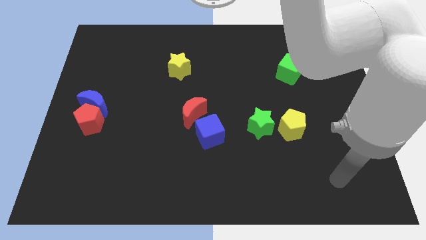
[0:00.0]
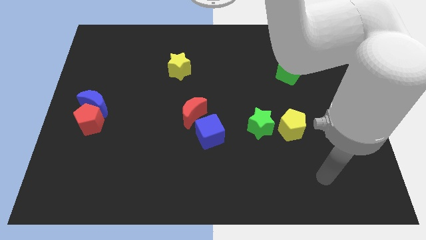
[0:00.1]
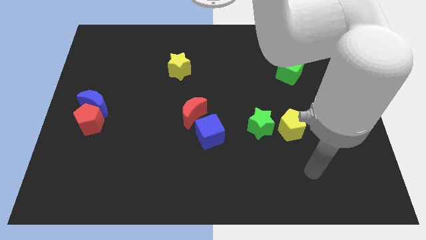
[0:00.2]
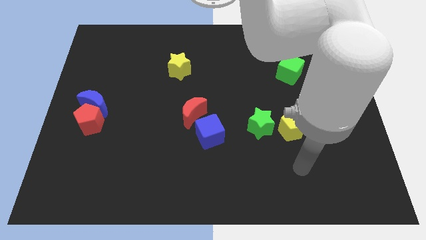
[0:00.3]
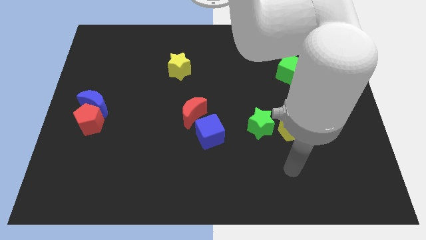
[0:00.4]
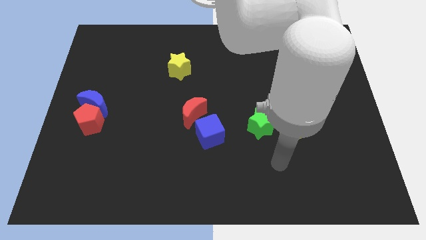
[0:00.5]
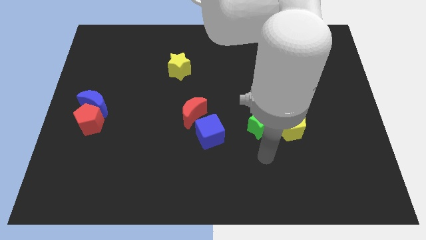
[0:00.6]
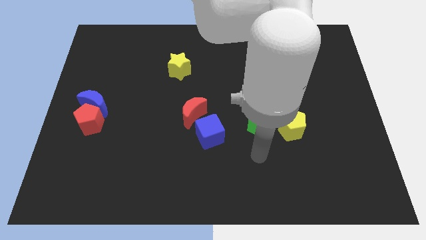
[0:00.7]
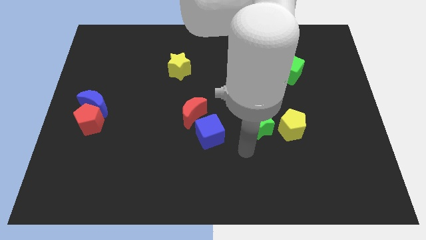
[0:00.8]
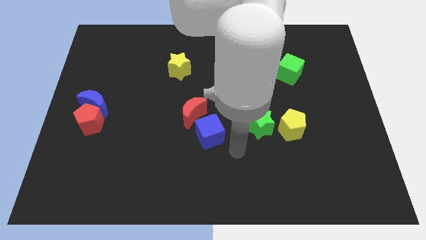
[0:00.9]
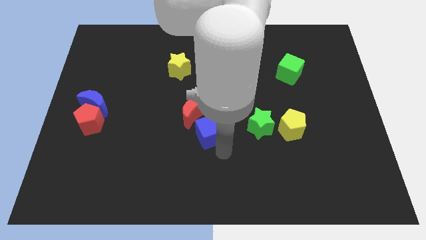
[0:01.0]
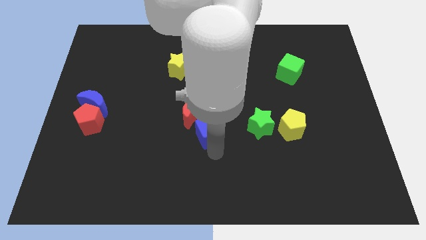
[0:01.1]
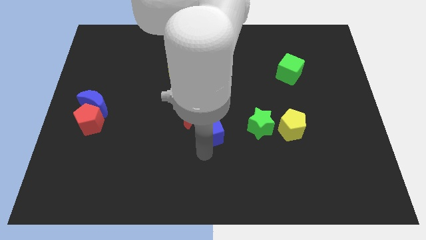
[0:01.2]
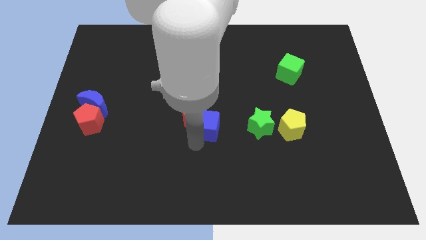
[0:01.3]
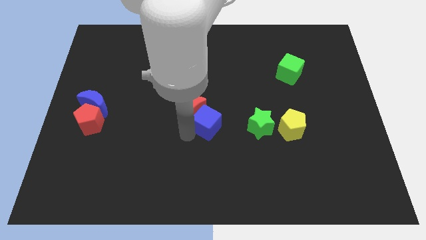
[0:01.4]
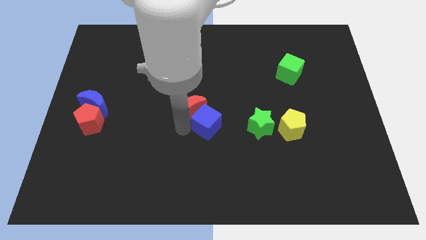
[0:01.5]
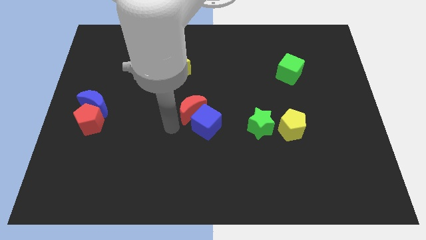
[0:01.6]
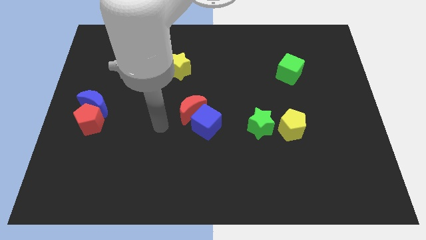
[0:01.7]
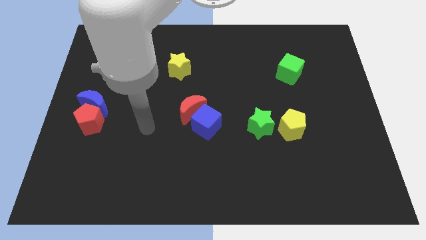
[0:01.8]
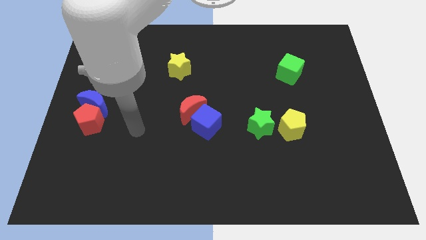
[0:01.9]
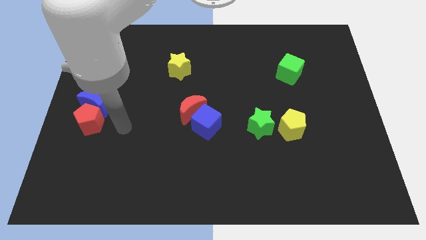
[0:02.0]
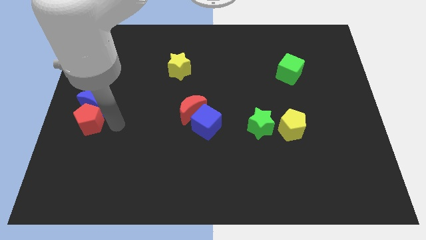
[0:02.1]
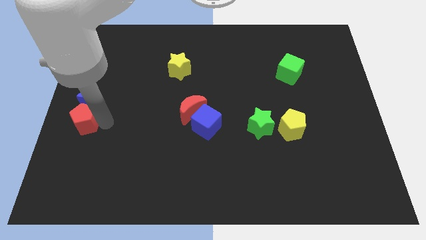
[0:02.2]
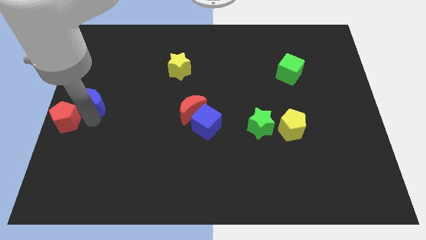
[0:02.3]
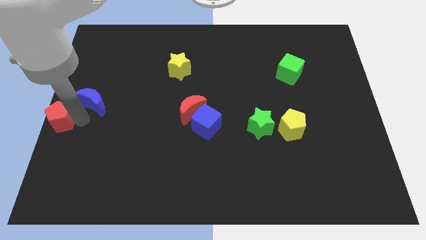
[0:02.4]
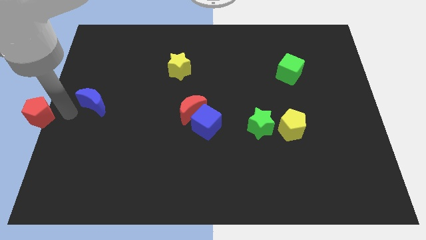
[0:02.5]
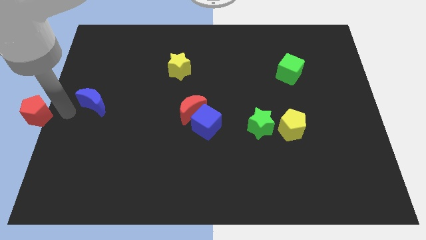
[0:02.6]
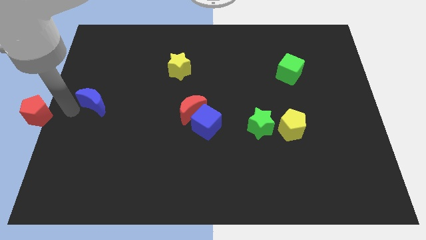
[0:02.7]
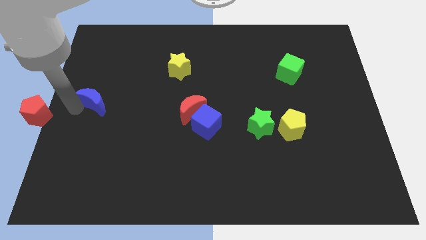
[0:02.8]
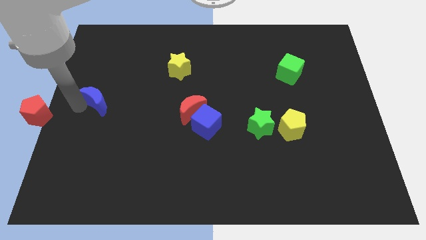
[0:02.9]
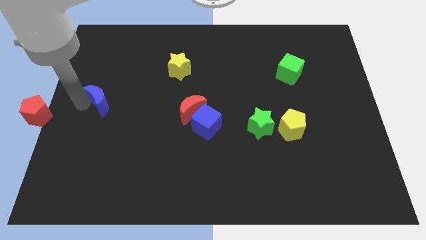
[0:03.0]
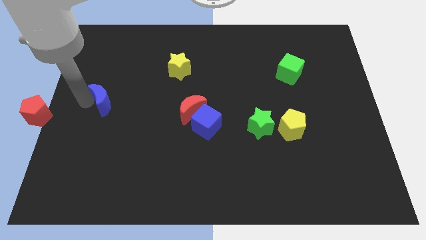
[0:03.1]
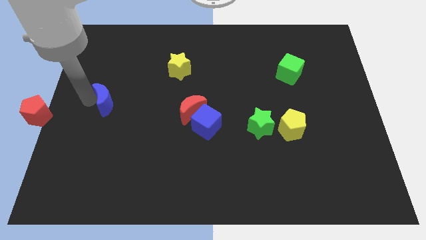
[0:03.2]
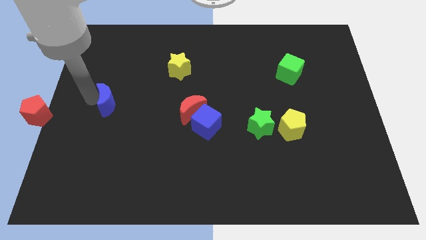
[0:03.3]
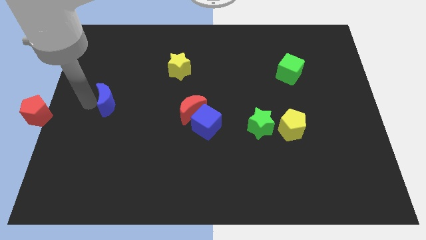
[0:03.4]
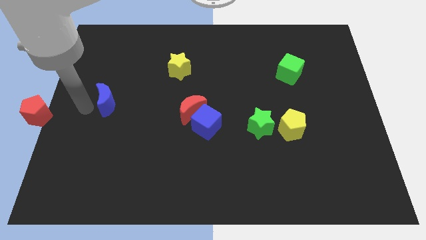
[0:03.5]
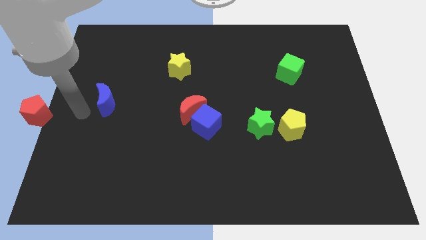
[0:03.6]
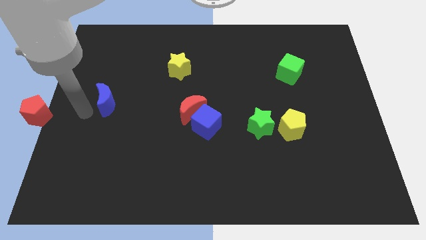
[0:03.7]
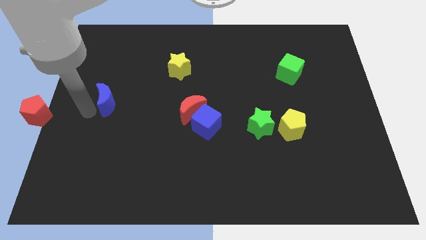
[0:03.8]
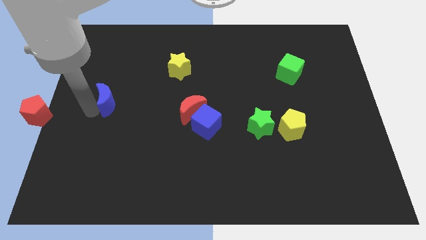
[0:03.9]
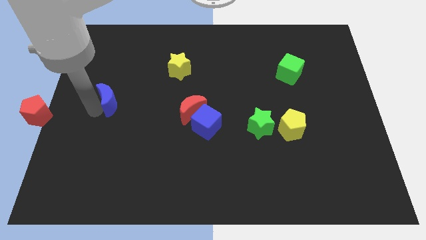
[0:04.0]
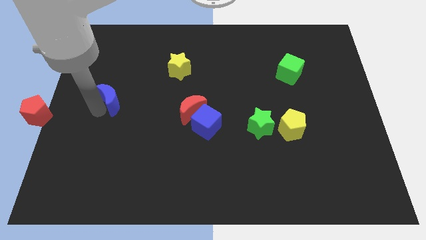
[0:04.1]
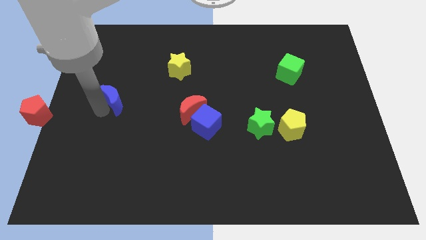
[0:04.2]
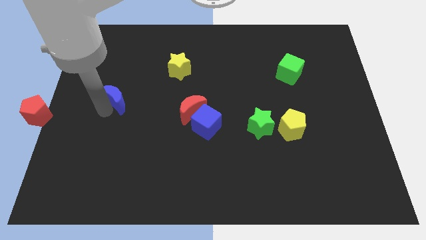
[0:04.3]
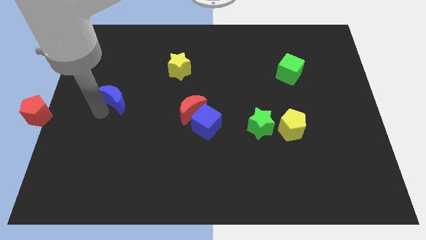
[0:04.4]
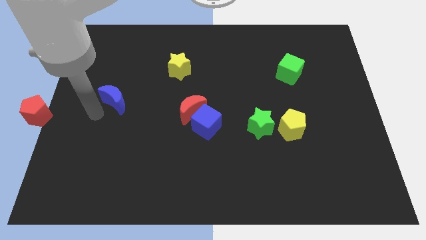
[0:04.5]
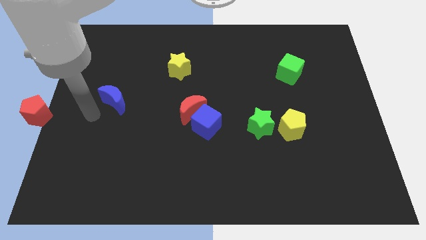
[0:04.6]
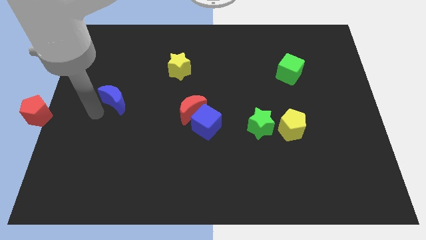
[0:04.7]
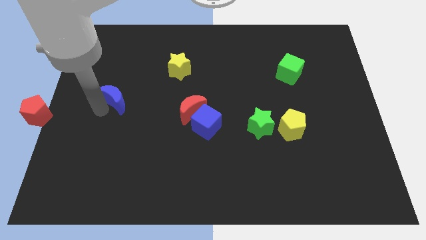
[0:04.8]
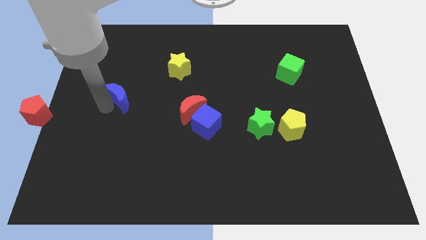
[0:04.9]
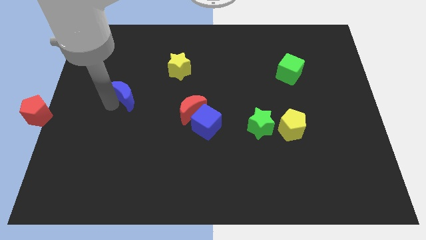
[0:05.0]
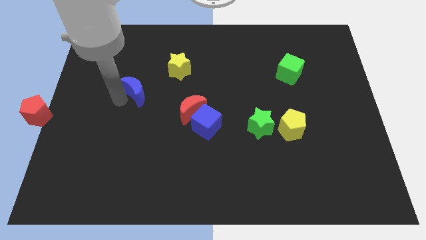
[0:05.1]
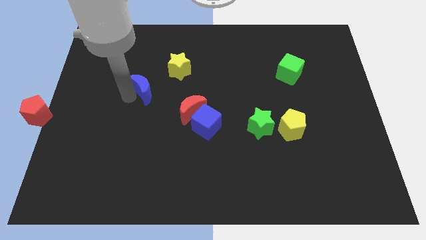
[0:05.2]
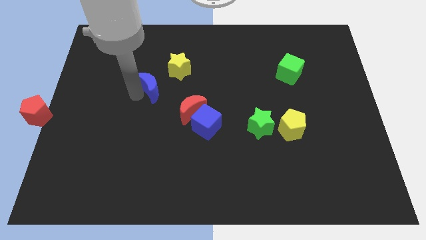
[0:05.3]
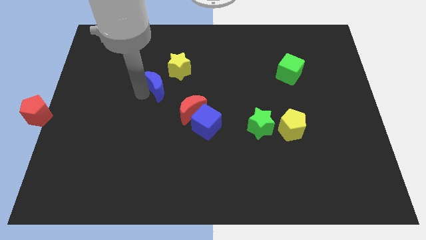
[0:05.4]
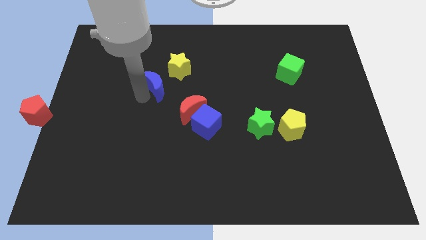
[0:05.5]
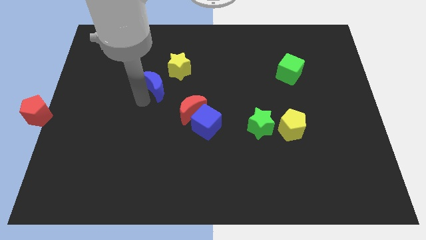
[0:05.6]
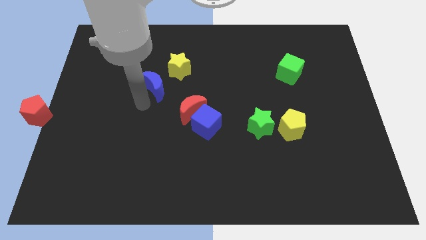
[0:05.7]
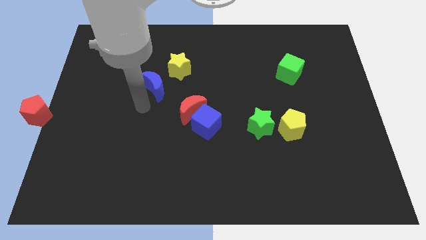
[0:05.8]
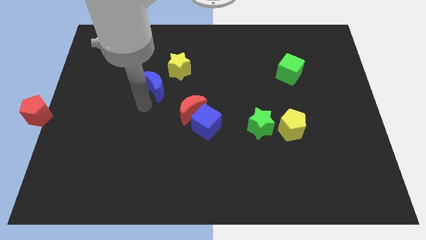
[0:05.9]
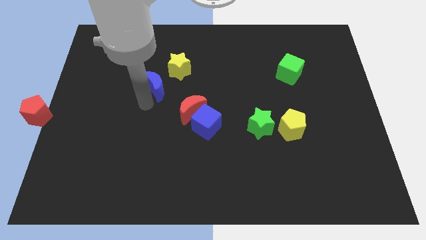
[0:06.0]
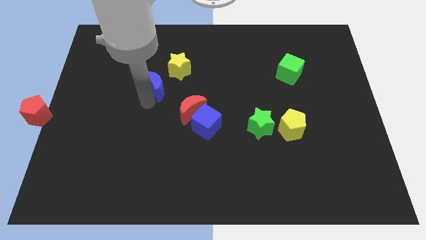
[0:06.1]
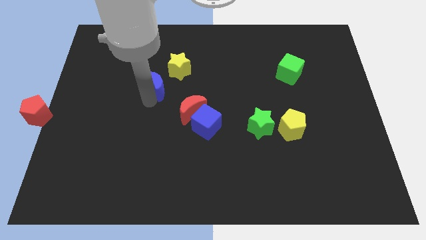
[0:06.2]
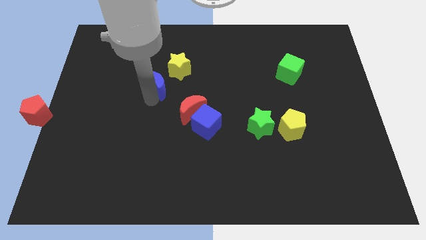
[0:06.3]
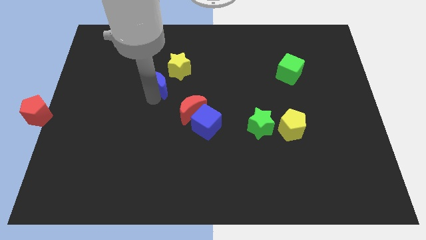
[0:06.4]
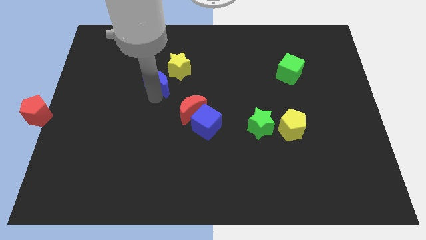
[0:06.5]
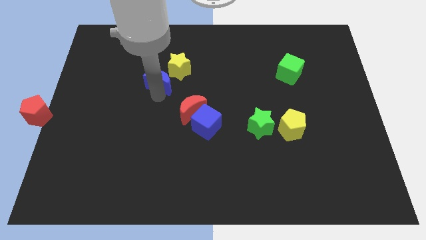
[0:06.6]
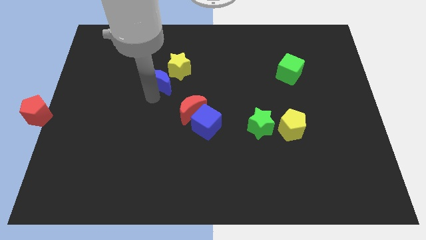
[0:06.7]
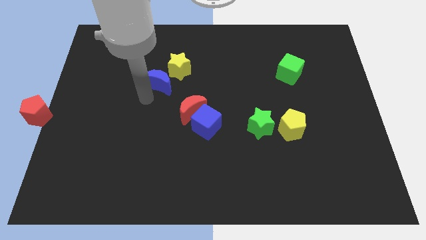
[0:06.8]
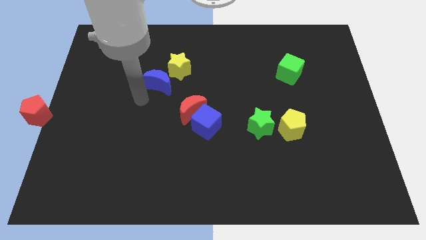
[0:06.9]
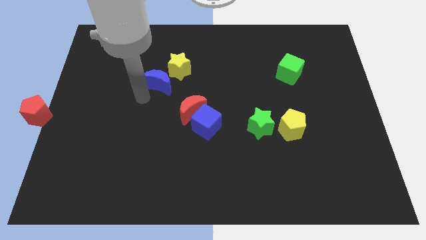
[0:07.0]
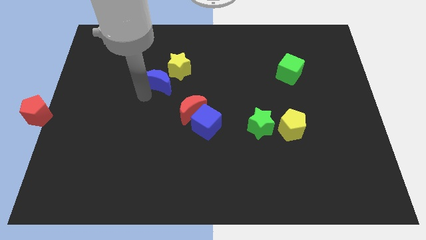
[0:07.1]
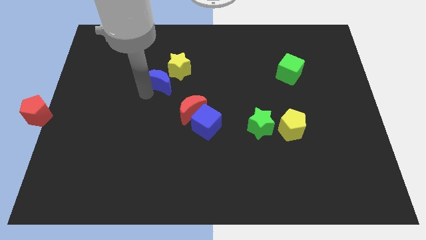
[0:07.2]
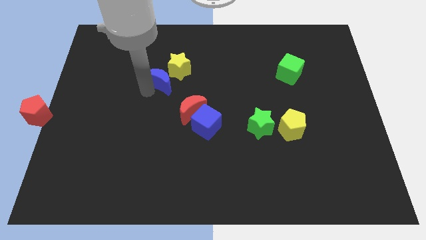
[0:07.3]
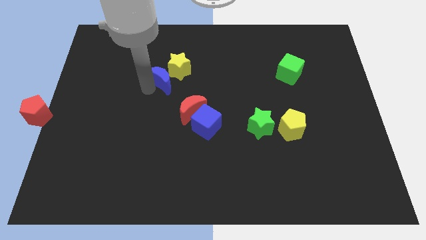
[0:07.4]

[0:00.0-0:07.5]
put the blue moon towards the yellow star

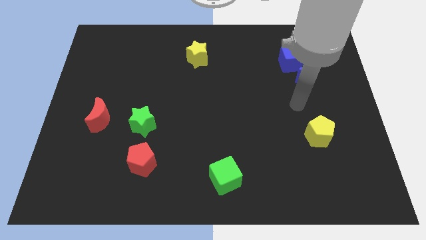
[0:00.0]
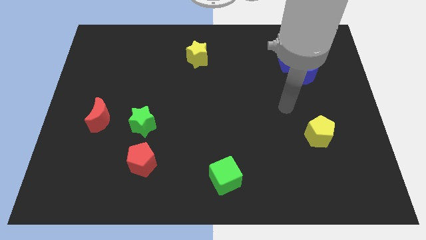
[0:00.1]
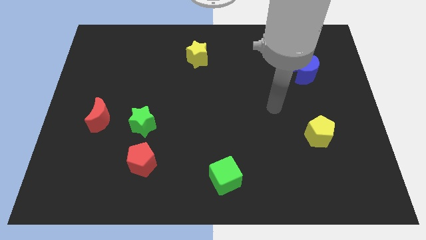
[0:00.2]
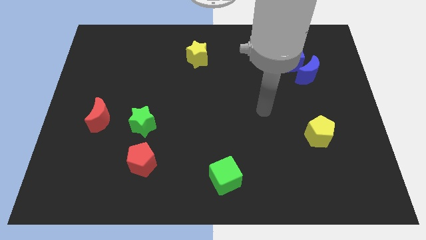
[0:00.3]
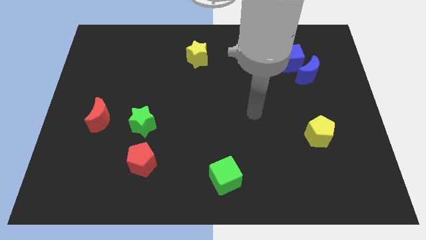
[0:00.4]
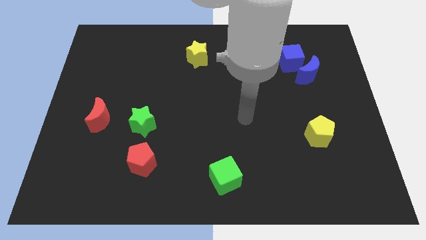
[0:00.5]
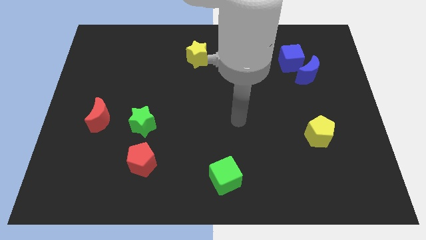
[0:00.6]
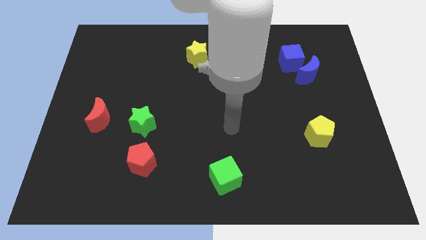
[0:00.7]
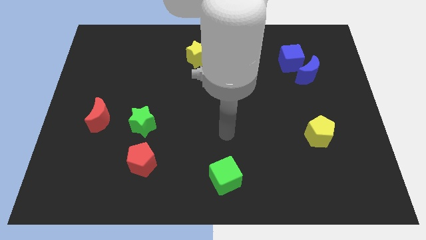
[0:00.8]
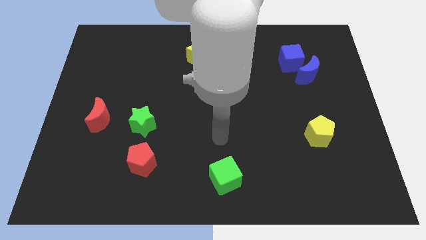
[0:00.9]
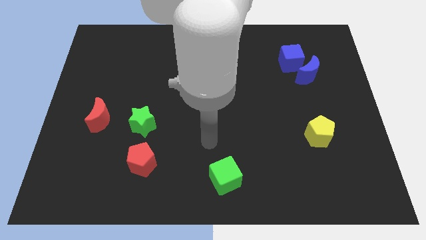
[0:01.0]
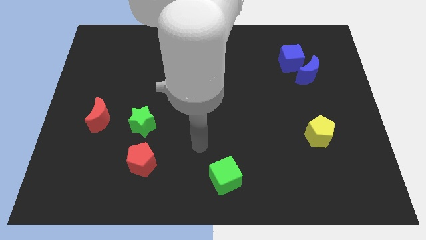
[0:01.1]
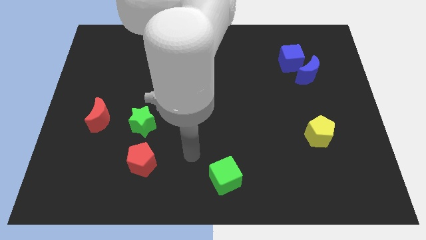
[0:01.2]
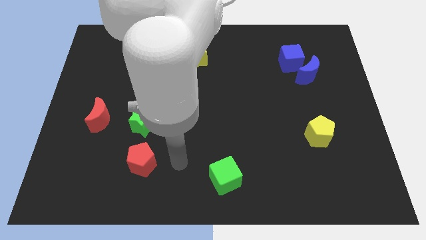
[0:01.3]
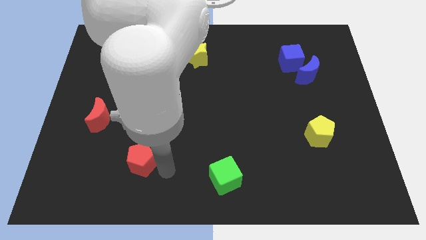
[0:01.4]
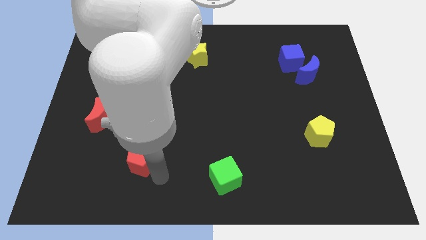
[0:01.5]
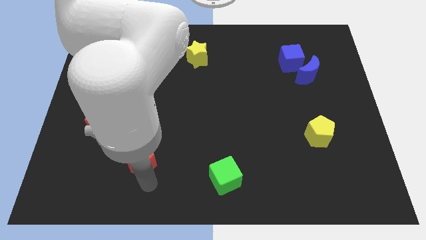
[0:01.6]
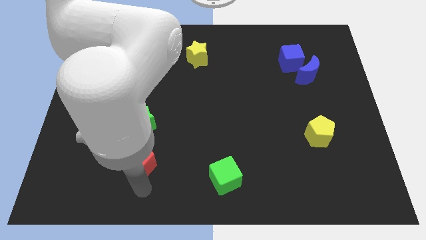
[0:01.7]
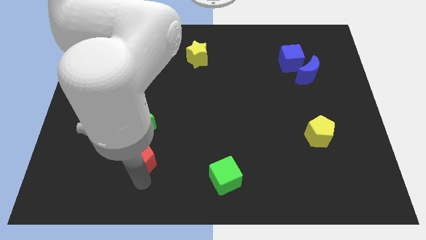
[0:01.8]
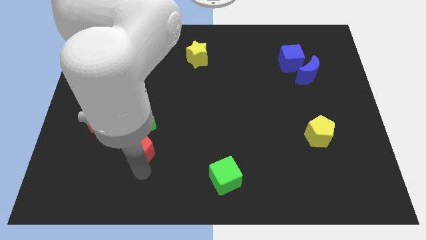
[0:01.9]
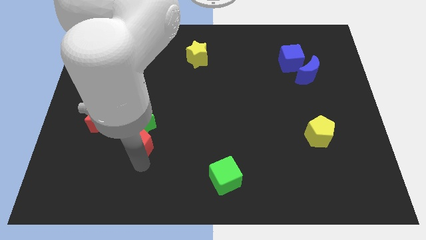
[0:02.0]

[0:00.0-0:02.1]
put the red pentagon to the green star
